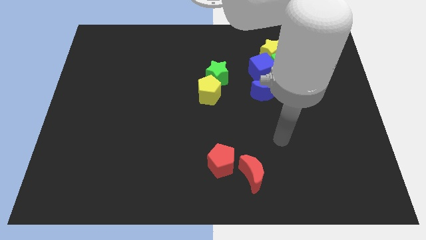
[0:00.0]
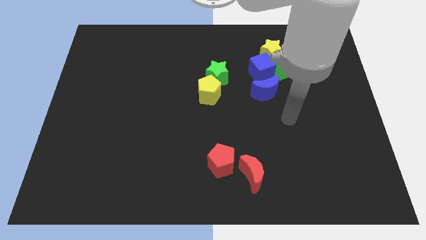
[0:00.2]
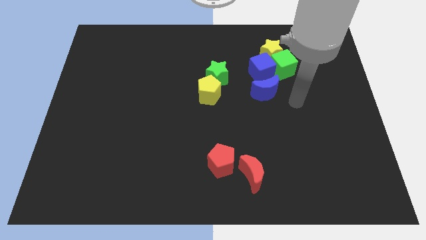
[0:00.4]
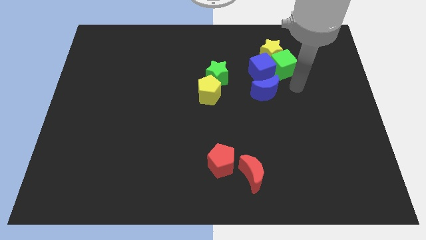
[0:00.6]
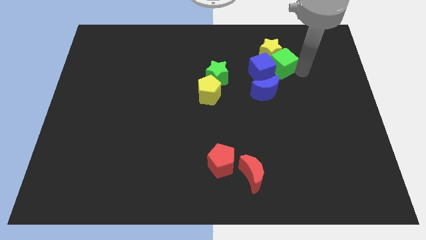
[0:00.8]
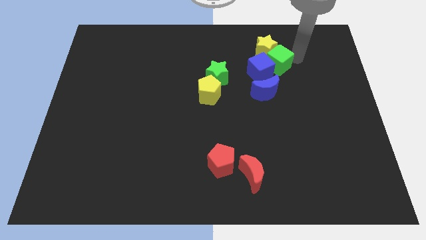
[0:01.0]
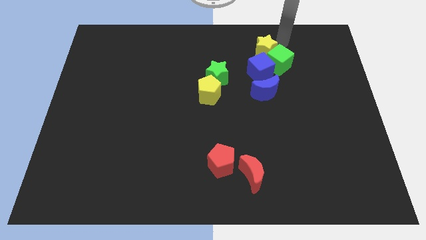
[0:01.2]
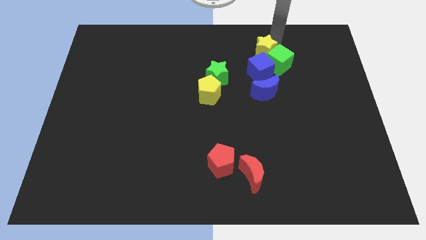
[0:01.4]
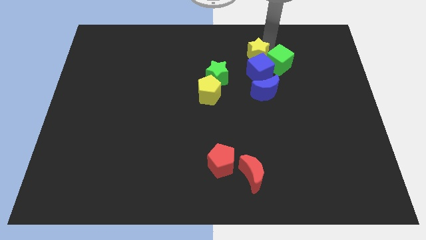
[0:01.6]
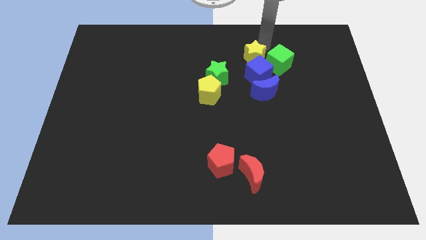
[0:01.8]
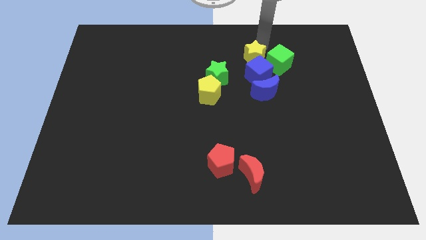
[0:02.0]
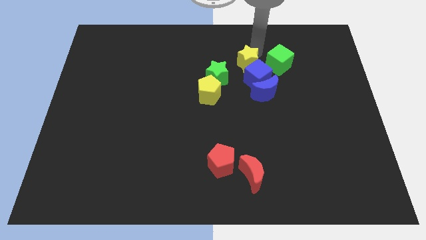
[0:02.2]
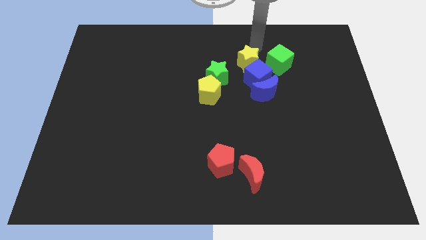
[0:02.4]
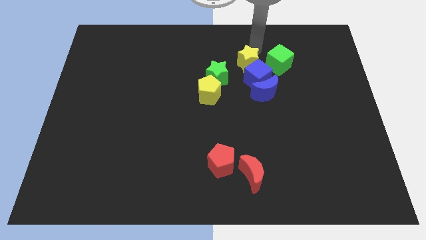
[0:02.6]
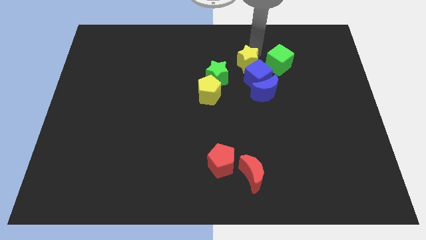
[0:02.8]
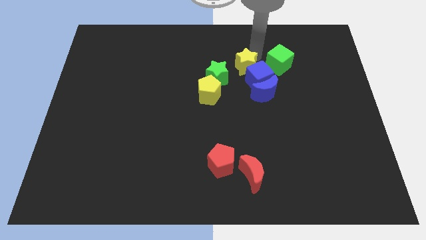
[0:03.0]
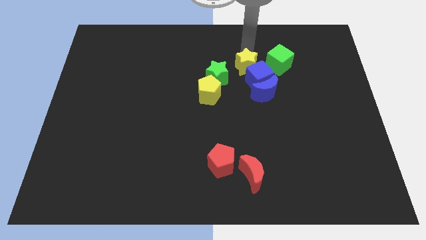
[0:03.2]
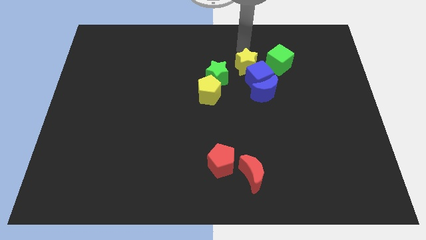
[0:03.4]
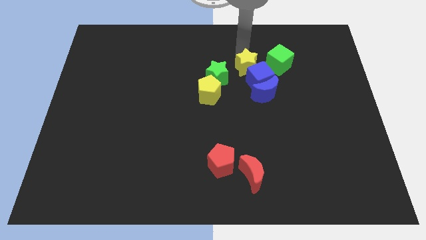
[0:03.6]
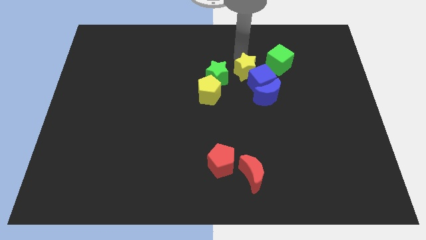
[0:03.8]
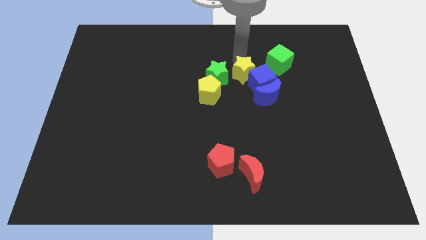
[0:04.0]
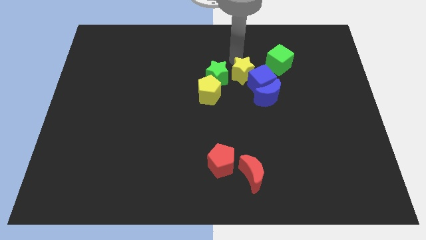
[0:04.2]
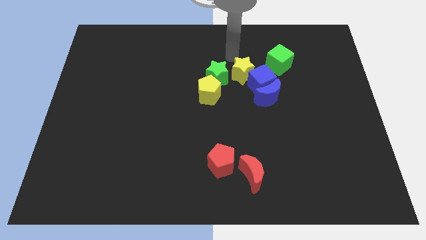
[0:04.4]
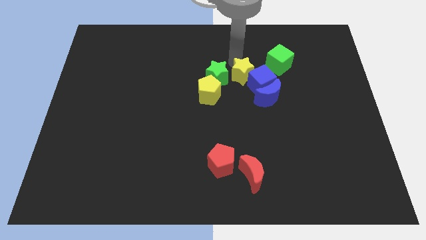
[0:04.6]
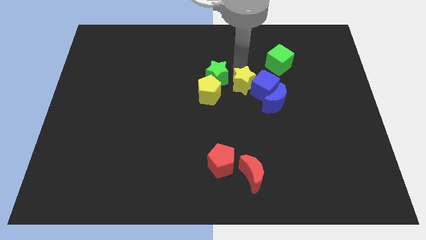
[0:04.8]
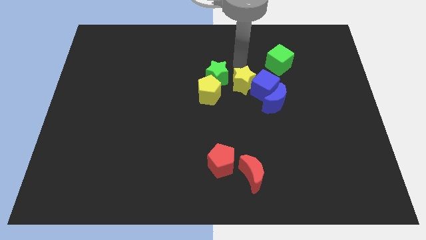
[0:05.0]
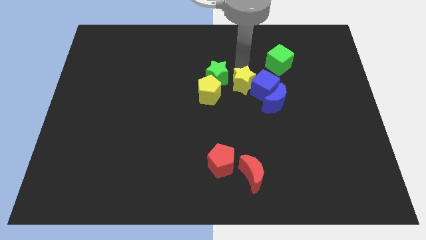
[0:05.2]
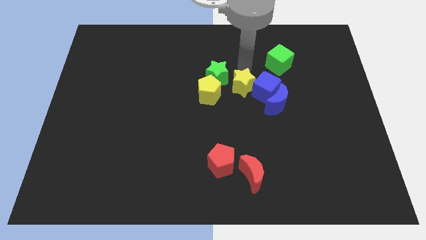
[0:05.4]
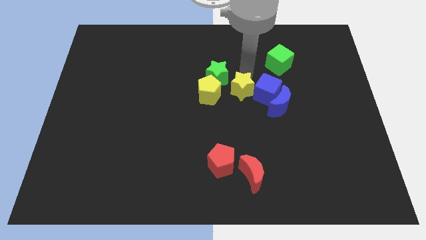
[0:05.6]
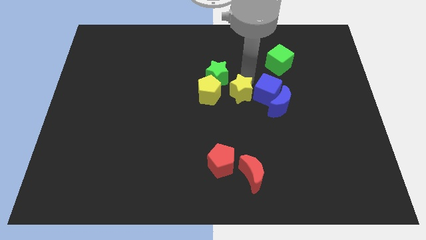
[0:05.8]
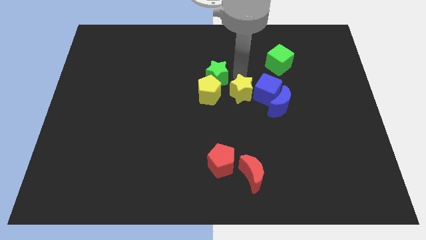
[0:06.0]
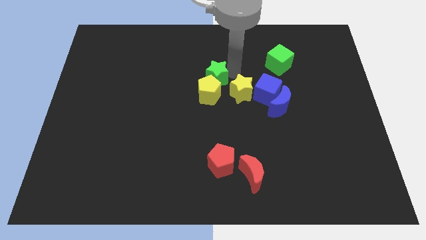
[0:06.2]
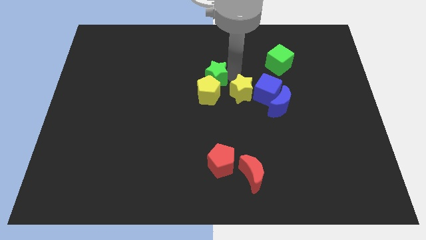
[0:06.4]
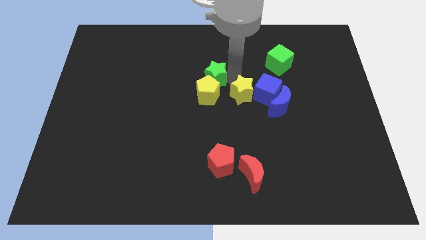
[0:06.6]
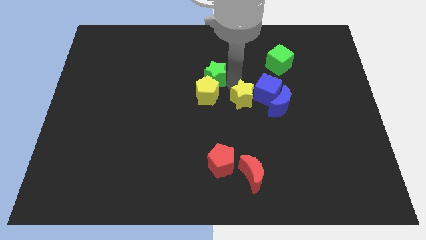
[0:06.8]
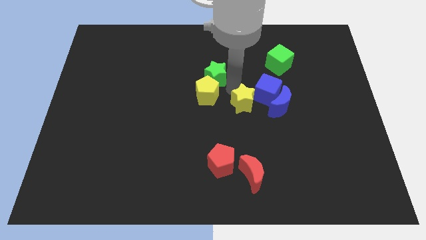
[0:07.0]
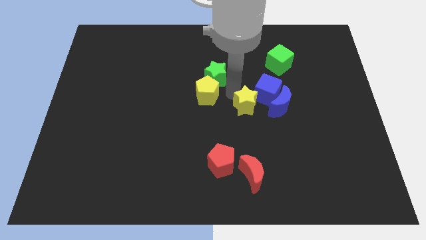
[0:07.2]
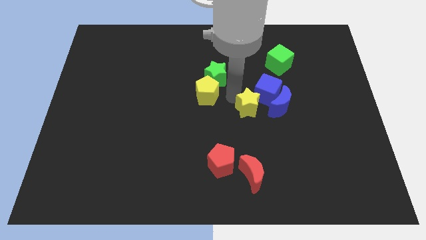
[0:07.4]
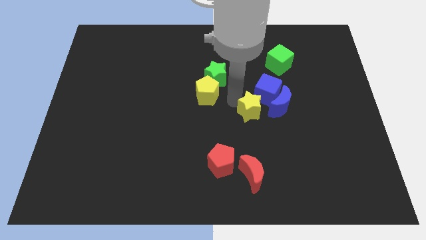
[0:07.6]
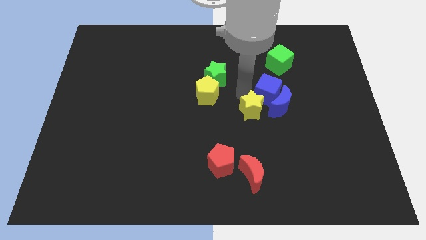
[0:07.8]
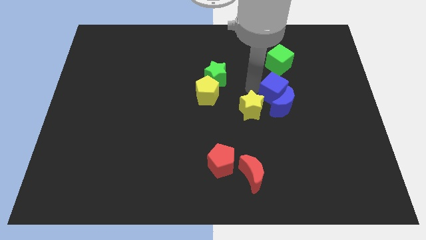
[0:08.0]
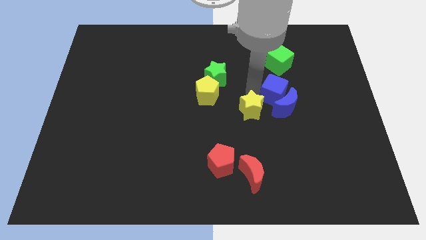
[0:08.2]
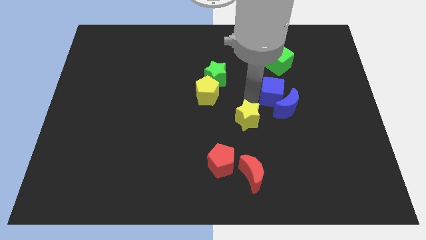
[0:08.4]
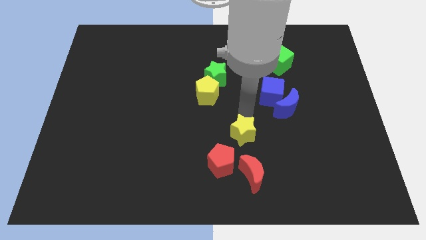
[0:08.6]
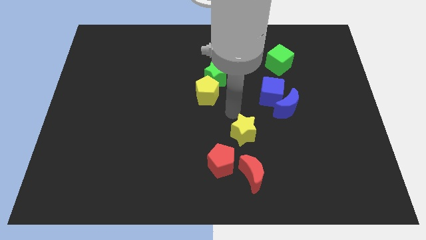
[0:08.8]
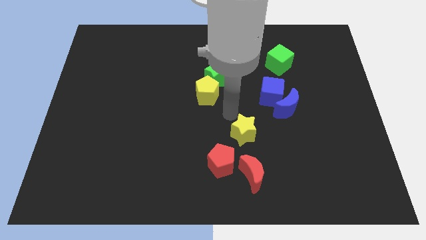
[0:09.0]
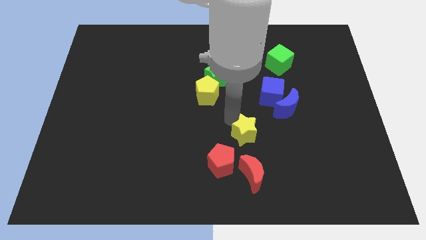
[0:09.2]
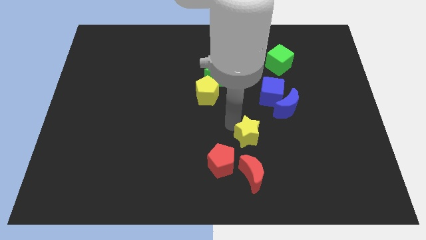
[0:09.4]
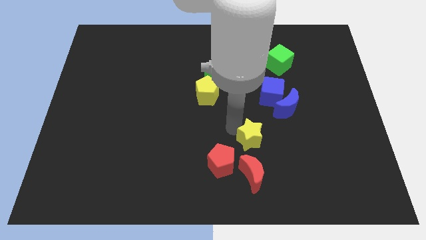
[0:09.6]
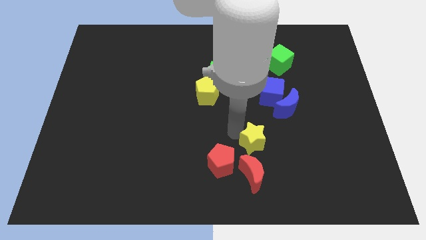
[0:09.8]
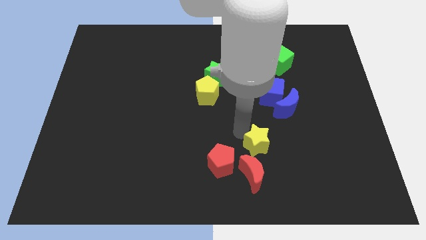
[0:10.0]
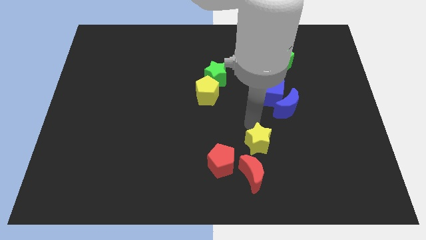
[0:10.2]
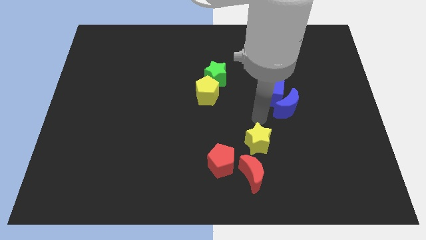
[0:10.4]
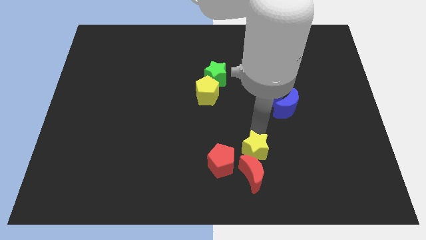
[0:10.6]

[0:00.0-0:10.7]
push the yellow star close to the red moon

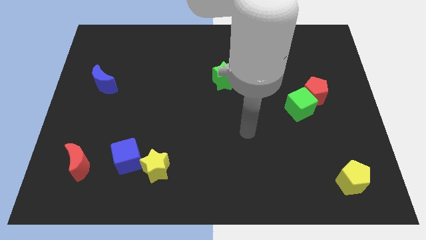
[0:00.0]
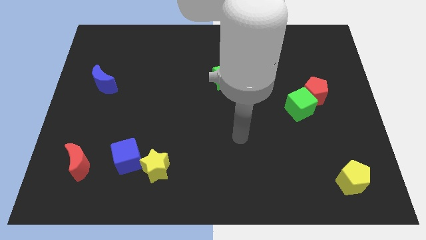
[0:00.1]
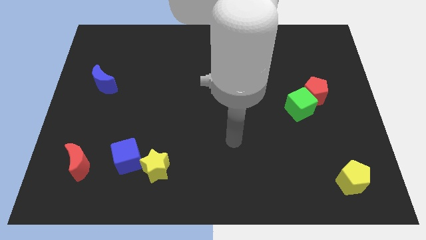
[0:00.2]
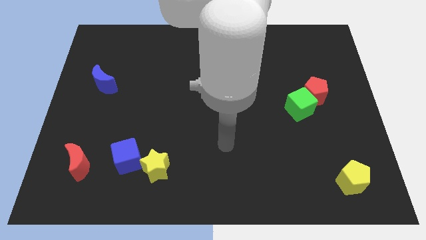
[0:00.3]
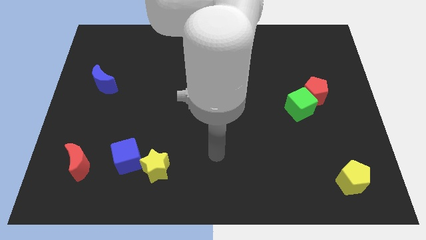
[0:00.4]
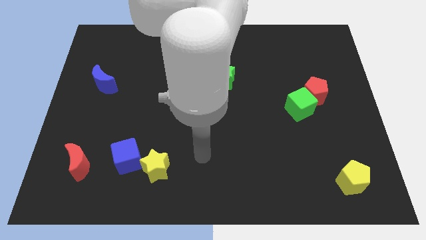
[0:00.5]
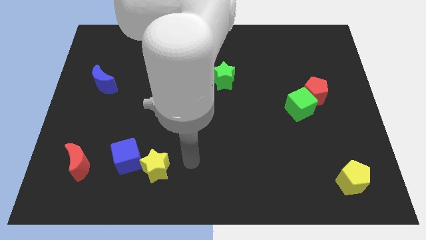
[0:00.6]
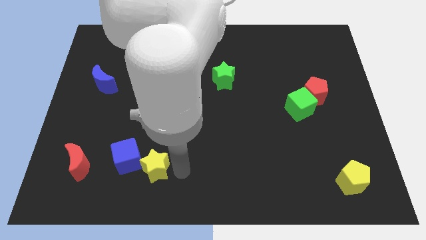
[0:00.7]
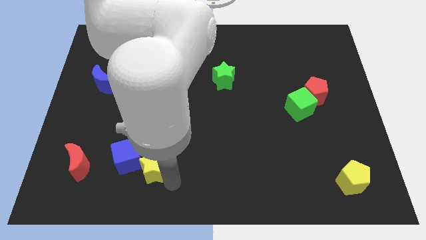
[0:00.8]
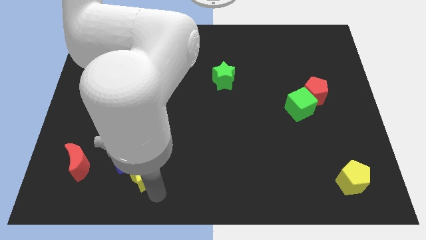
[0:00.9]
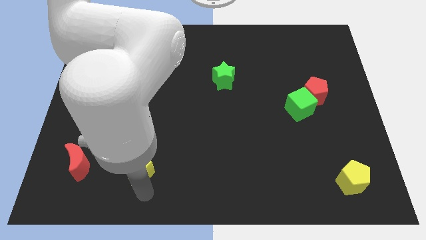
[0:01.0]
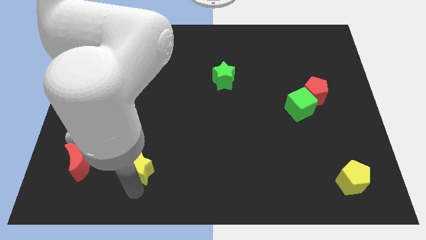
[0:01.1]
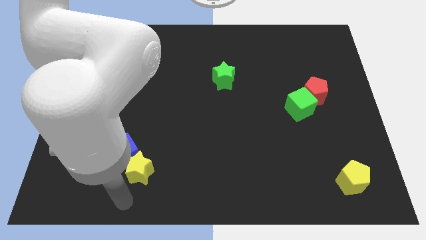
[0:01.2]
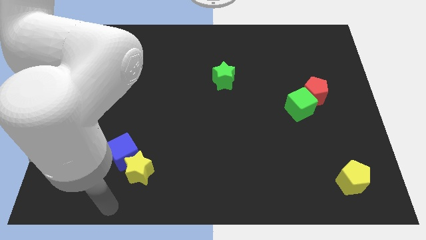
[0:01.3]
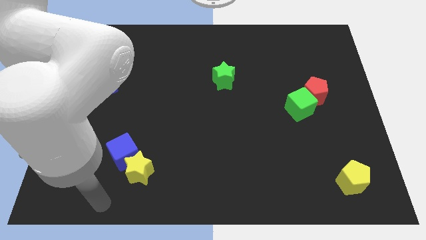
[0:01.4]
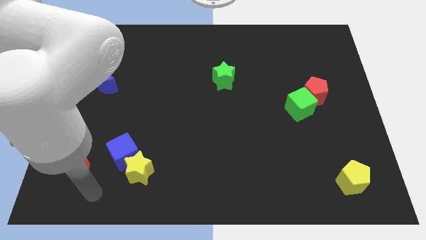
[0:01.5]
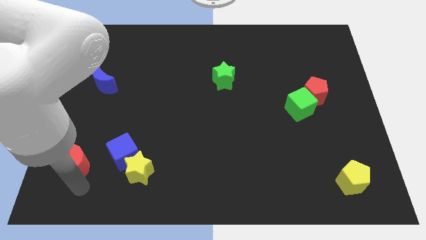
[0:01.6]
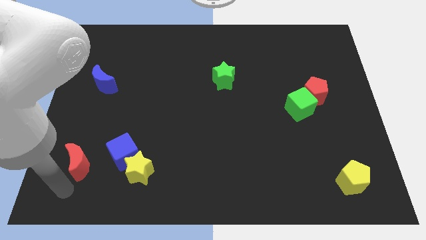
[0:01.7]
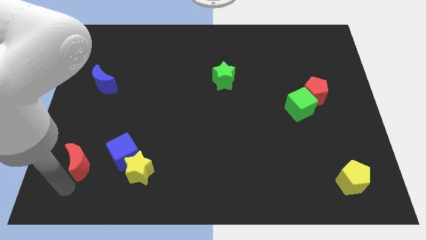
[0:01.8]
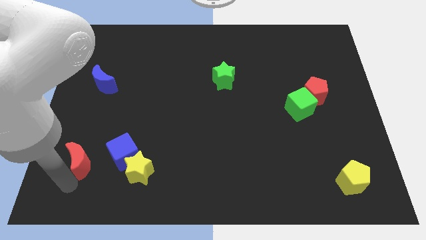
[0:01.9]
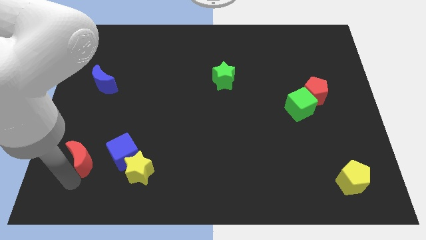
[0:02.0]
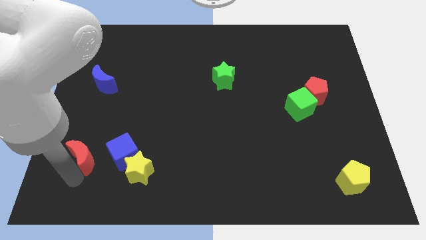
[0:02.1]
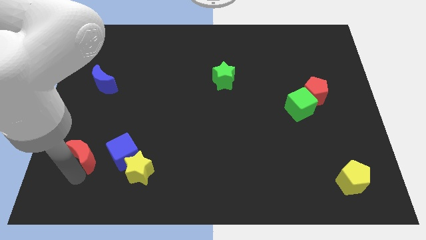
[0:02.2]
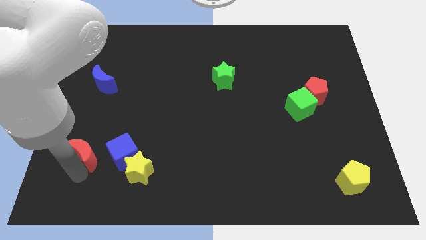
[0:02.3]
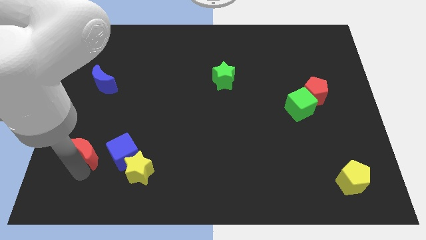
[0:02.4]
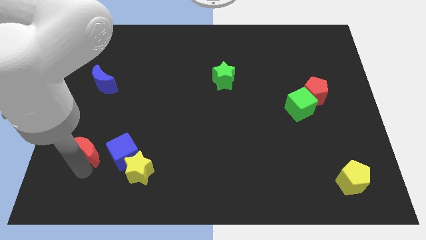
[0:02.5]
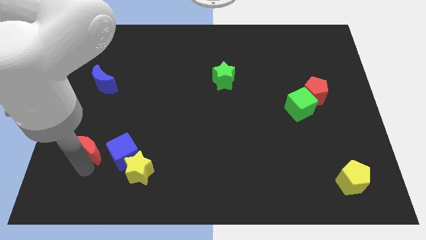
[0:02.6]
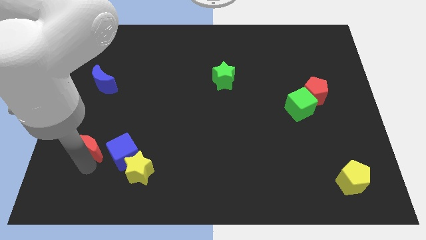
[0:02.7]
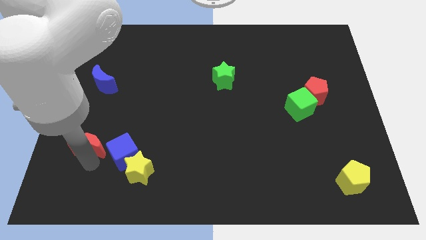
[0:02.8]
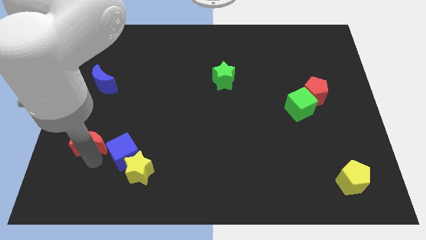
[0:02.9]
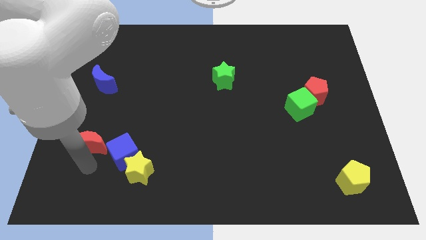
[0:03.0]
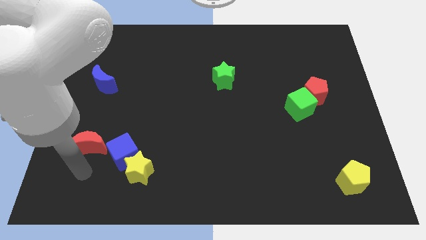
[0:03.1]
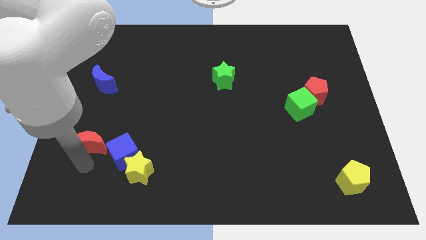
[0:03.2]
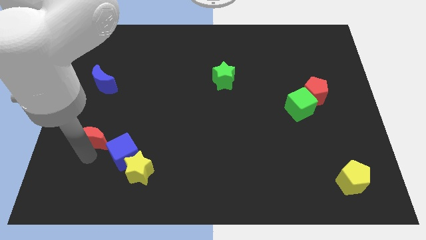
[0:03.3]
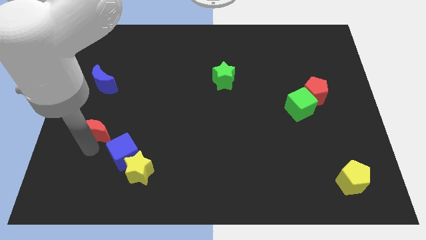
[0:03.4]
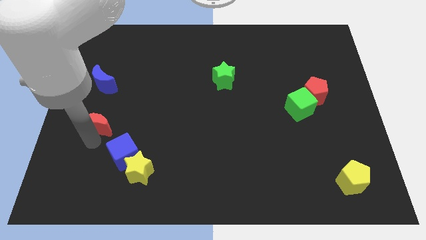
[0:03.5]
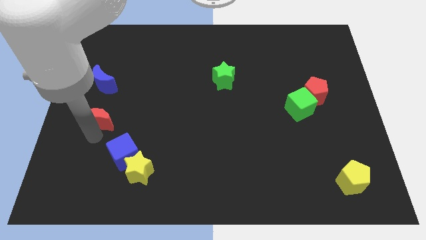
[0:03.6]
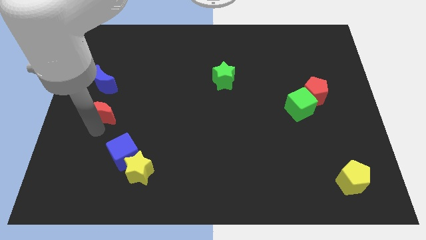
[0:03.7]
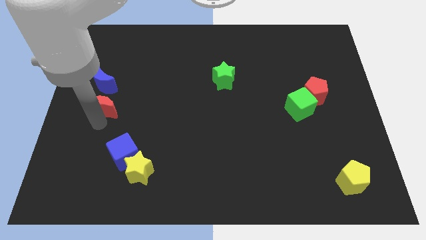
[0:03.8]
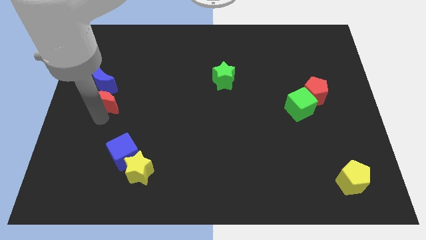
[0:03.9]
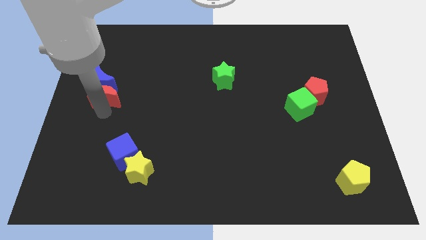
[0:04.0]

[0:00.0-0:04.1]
slide the red moon to the blue moon
